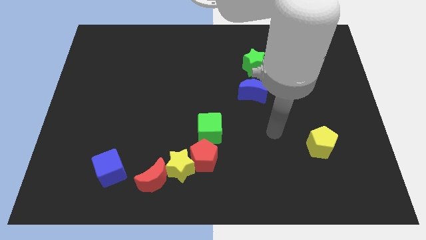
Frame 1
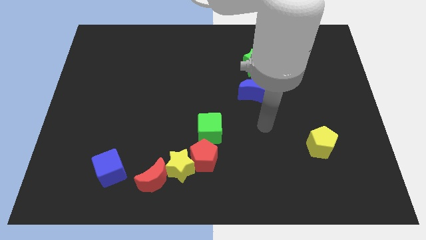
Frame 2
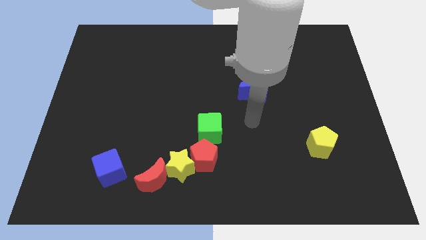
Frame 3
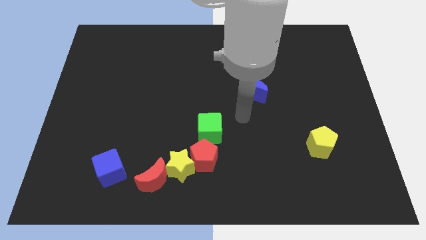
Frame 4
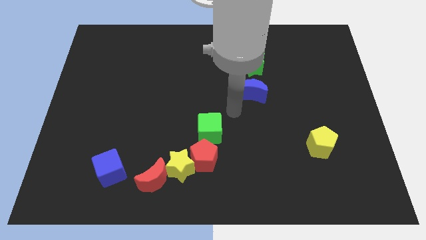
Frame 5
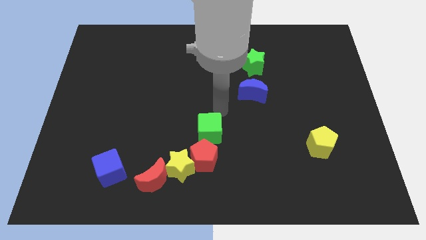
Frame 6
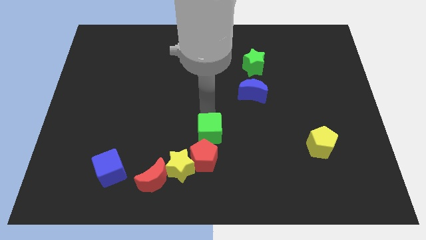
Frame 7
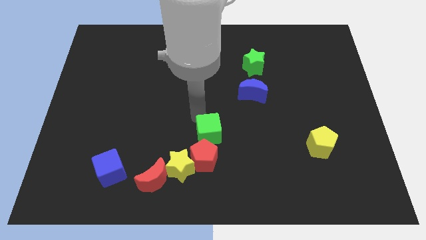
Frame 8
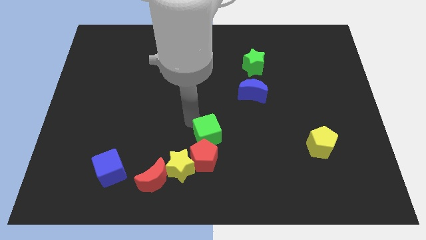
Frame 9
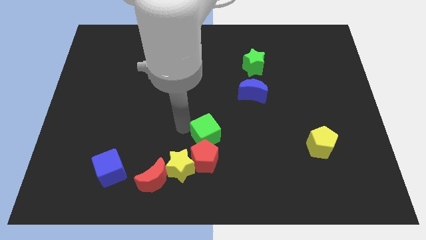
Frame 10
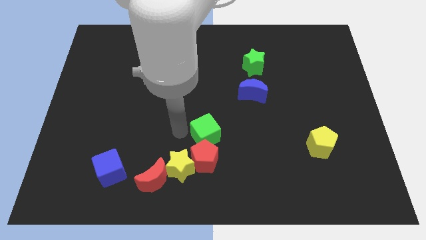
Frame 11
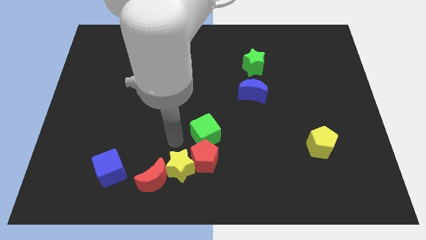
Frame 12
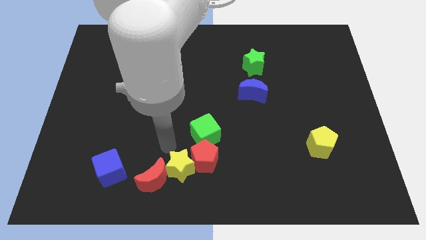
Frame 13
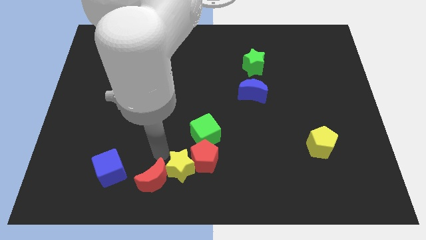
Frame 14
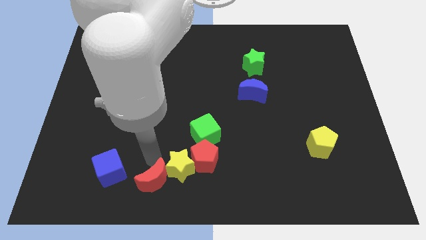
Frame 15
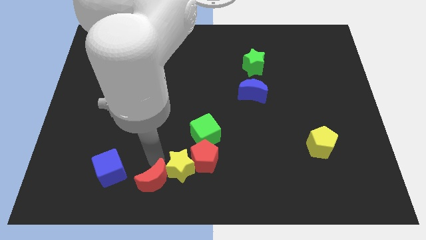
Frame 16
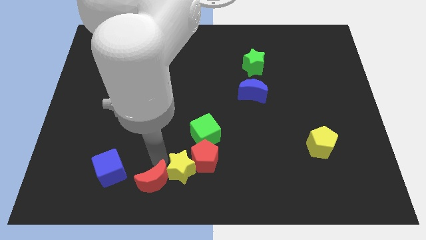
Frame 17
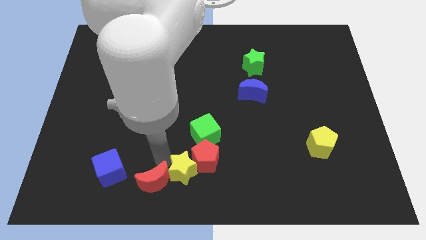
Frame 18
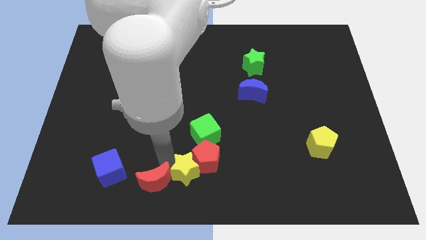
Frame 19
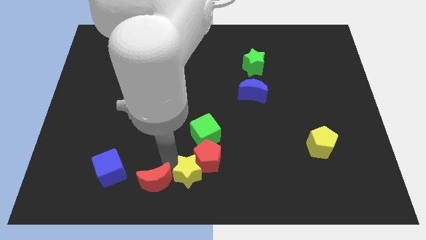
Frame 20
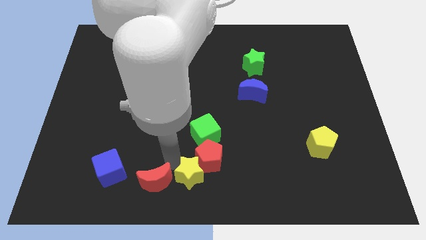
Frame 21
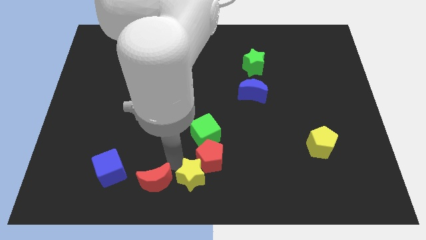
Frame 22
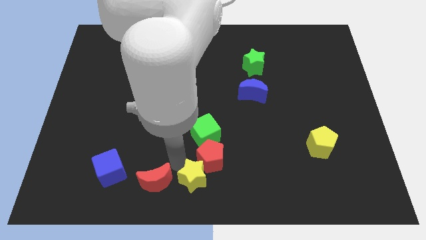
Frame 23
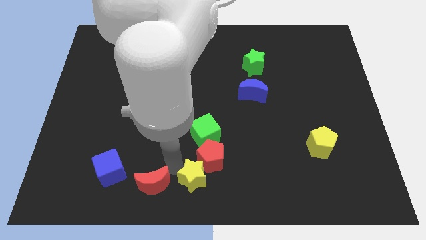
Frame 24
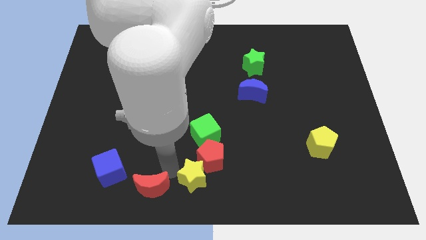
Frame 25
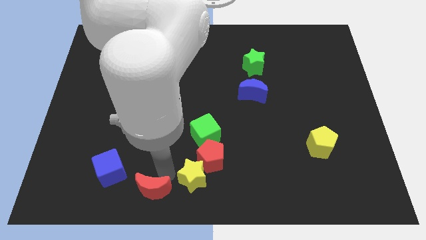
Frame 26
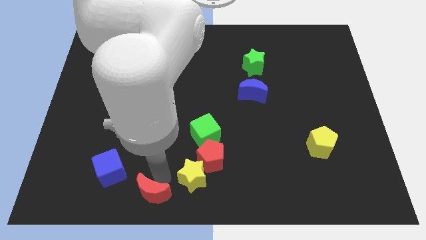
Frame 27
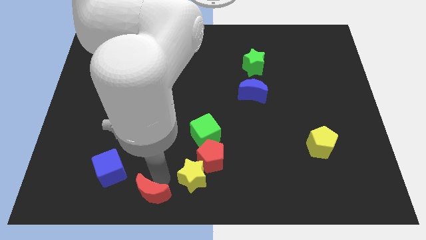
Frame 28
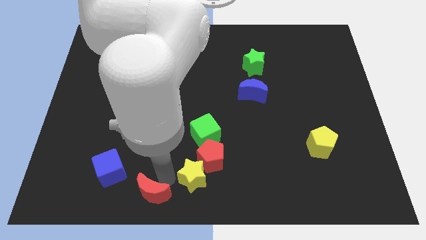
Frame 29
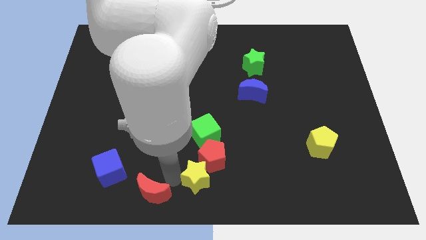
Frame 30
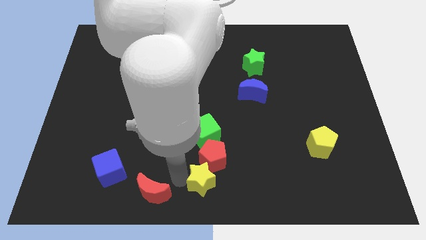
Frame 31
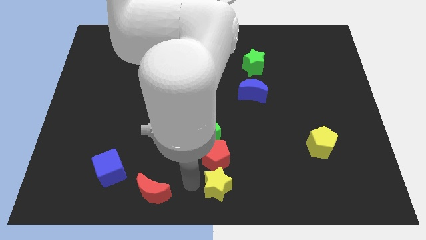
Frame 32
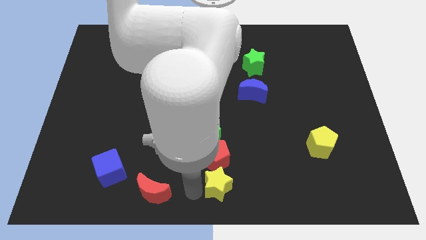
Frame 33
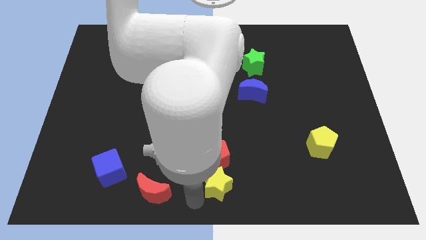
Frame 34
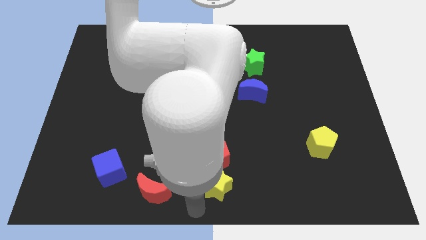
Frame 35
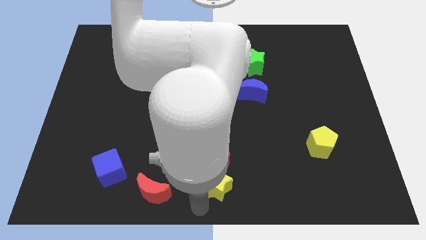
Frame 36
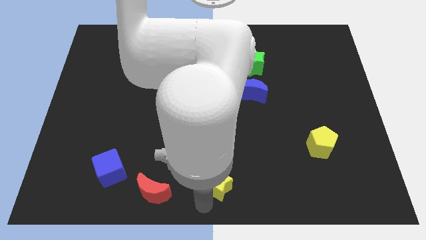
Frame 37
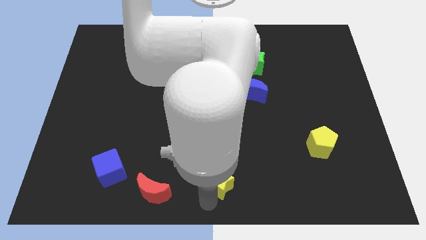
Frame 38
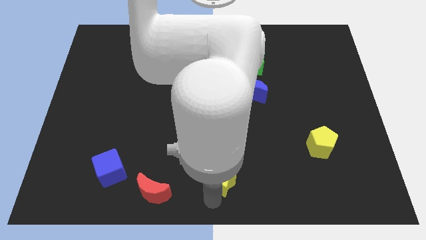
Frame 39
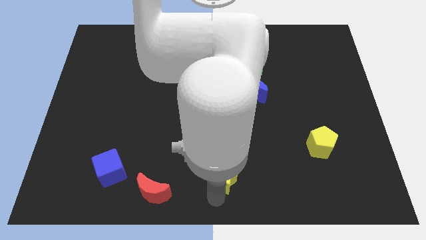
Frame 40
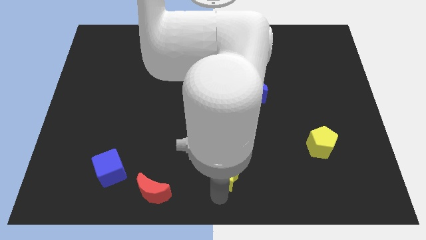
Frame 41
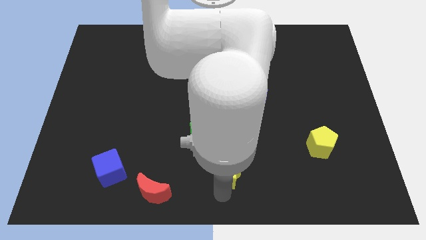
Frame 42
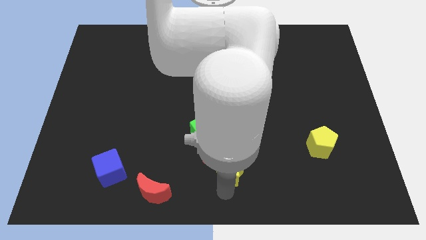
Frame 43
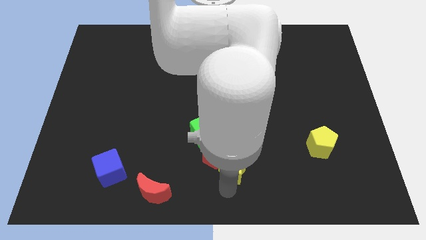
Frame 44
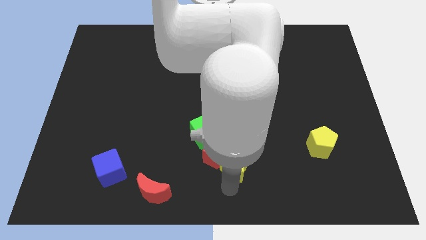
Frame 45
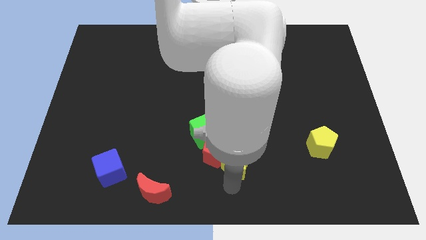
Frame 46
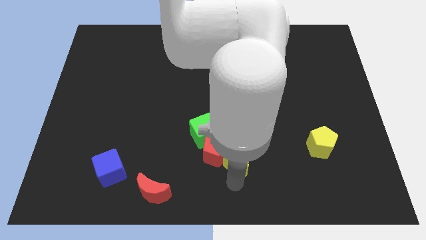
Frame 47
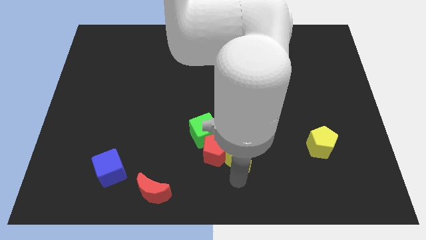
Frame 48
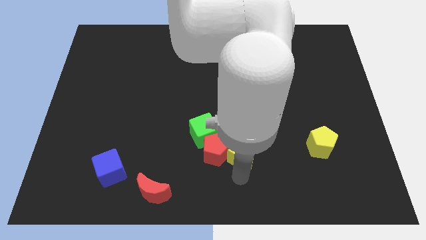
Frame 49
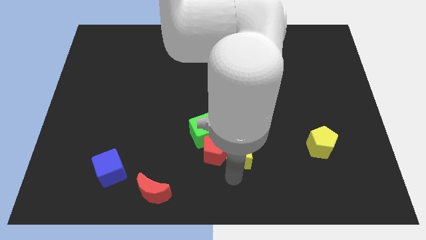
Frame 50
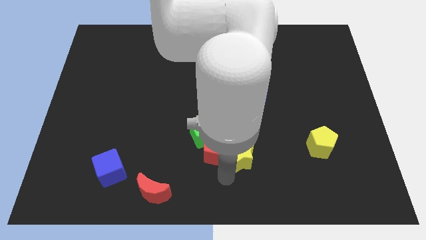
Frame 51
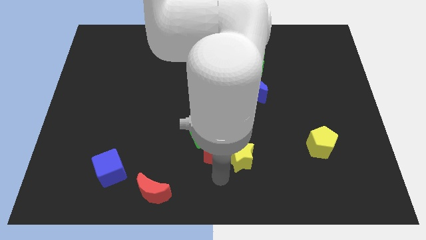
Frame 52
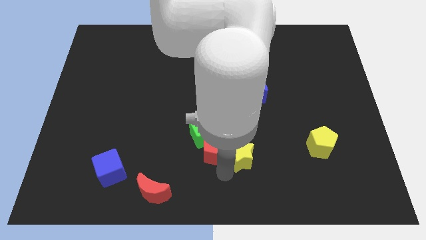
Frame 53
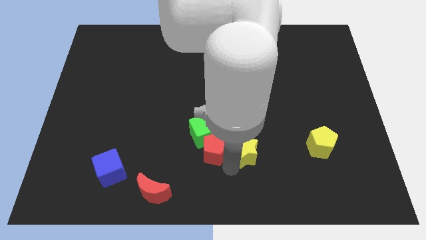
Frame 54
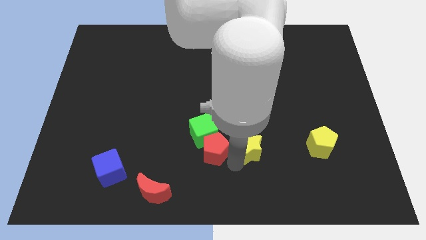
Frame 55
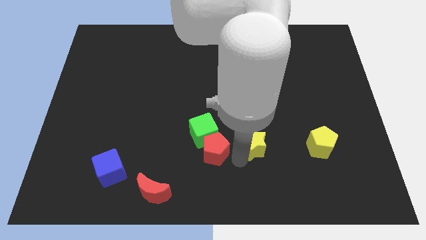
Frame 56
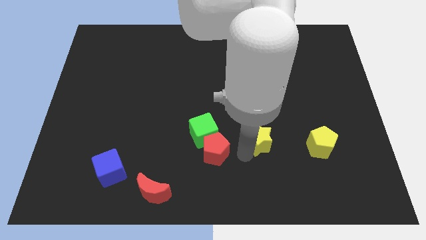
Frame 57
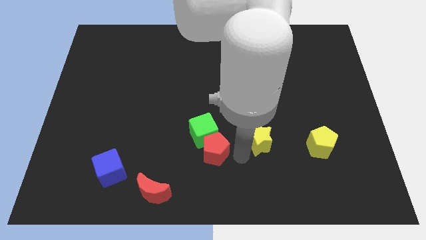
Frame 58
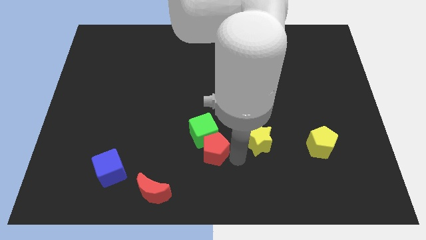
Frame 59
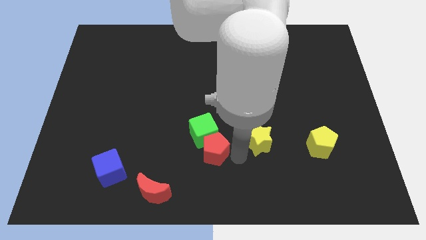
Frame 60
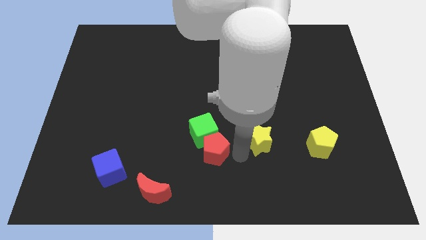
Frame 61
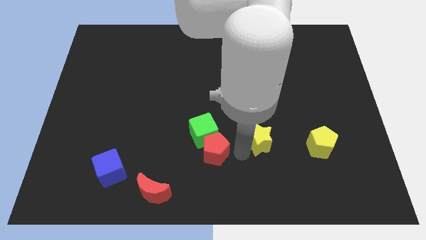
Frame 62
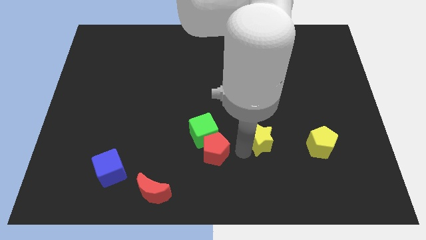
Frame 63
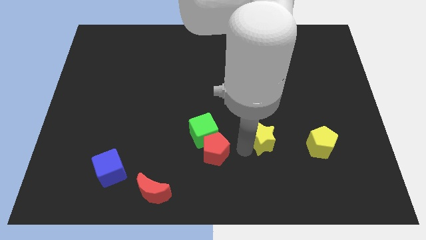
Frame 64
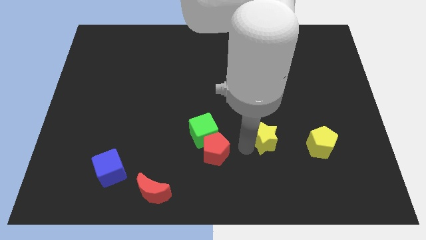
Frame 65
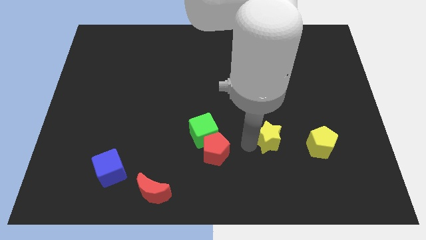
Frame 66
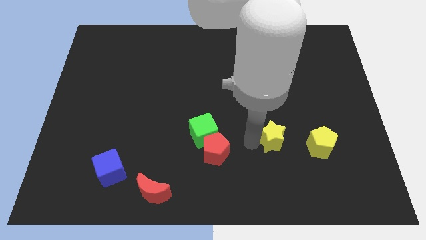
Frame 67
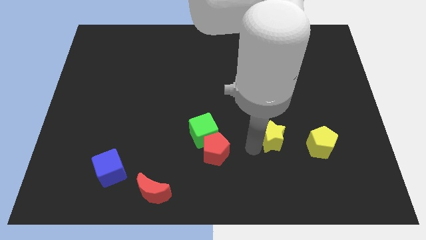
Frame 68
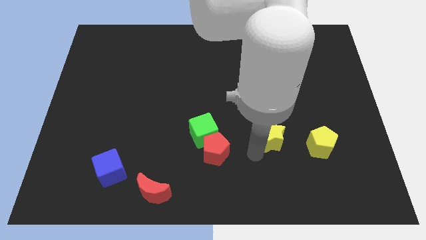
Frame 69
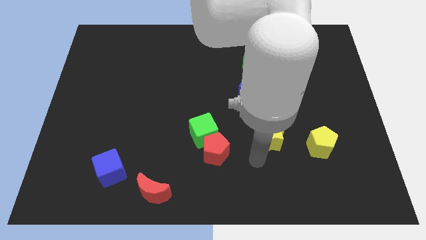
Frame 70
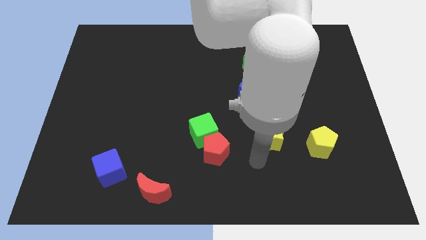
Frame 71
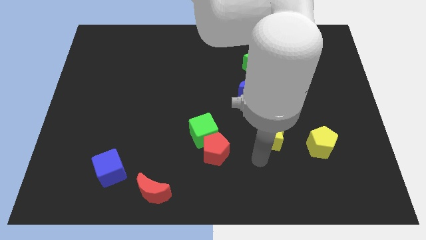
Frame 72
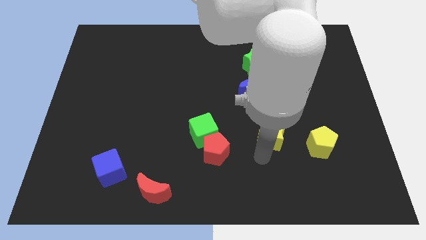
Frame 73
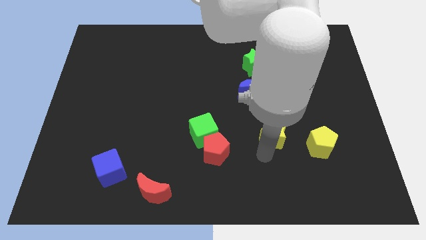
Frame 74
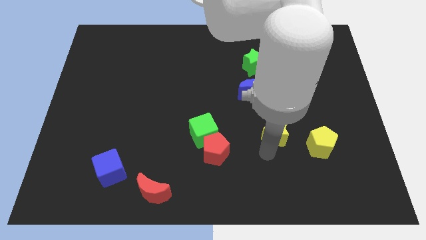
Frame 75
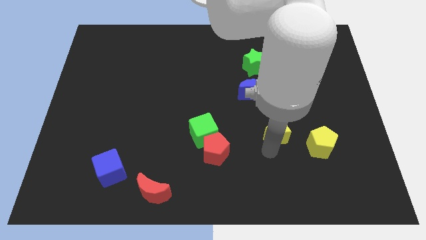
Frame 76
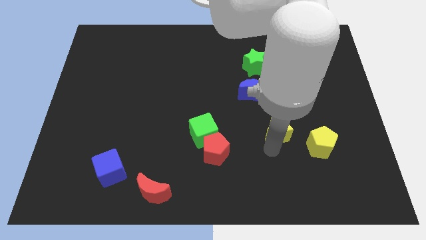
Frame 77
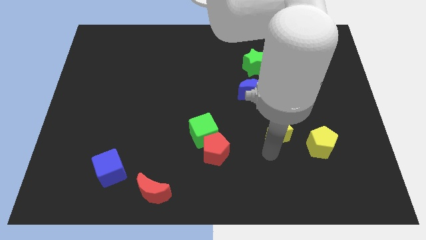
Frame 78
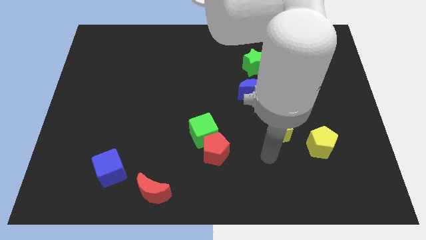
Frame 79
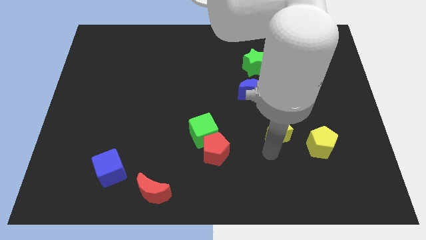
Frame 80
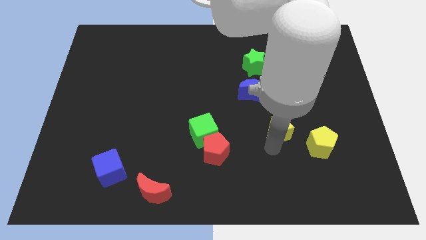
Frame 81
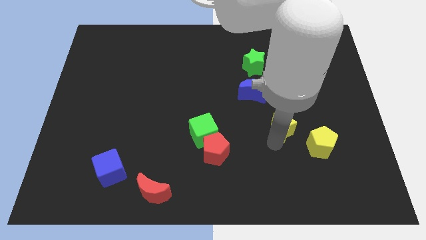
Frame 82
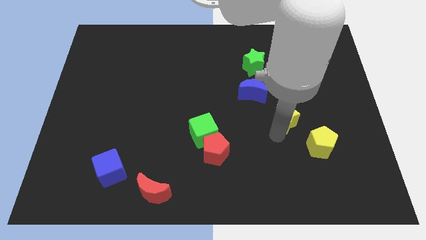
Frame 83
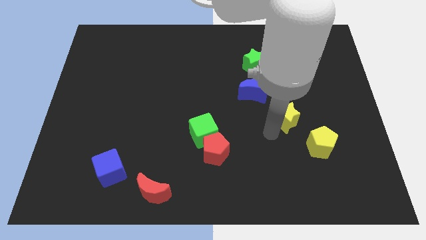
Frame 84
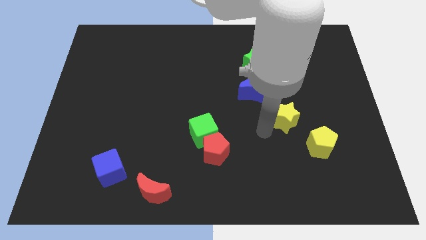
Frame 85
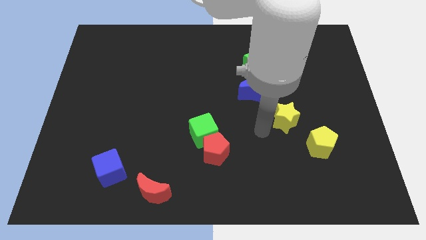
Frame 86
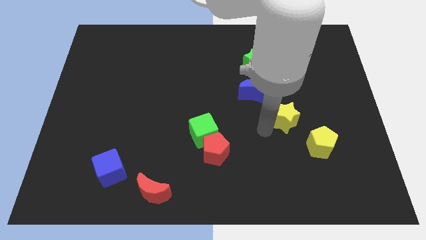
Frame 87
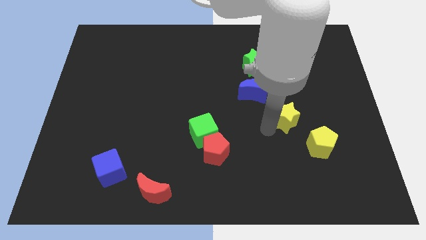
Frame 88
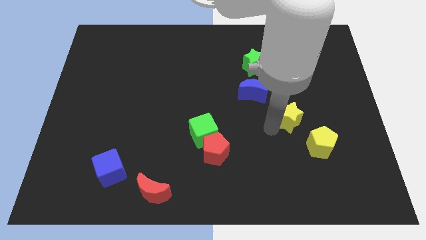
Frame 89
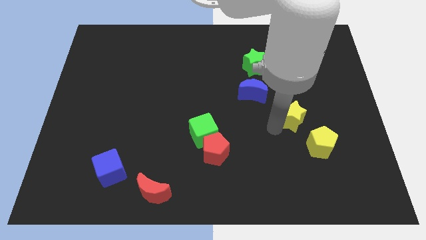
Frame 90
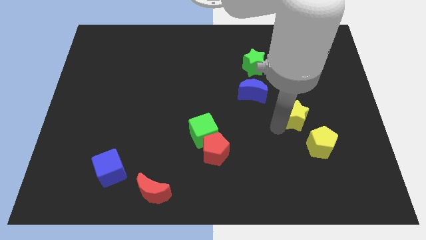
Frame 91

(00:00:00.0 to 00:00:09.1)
slide the yellow star above the yellow pentagon
